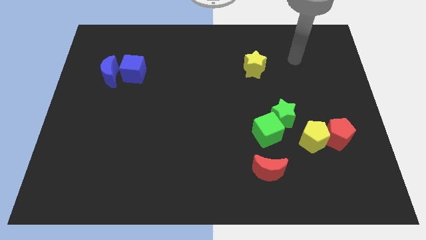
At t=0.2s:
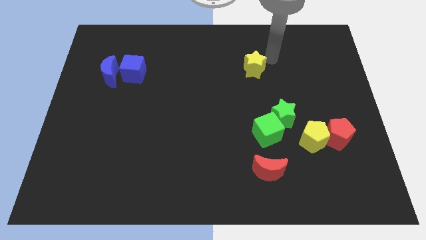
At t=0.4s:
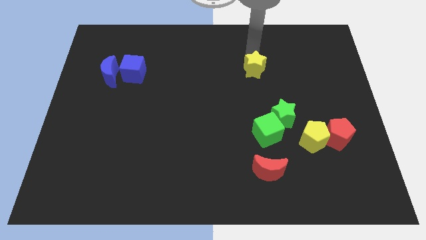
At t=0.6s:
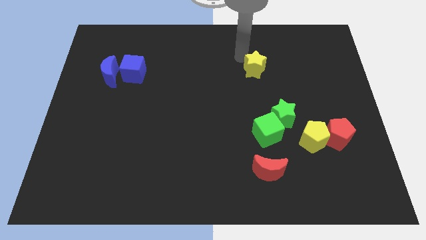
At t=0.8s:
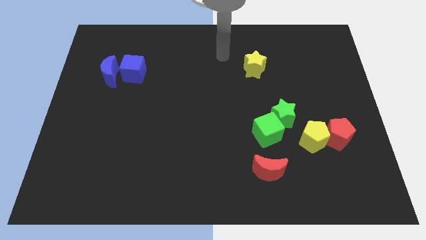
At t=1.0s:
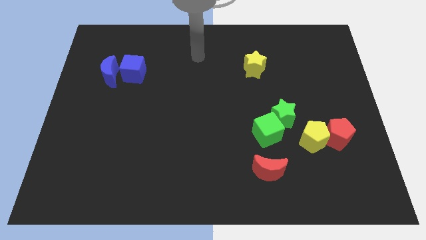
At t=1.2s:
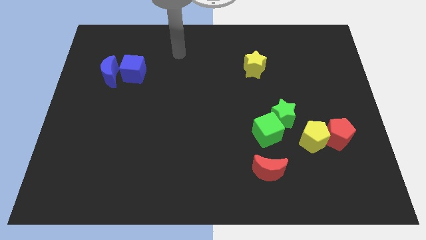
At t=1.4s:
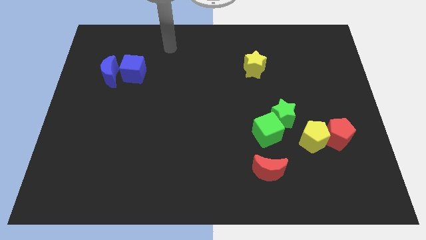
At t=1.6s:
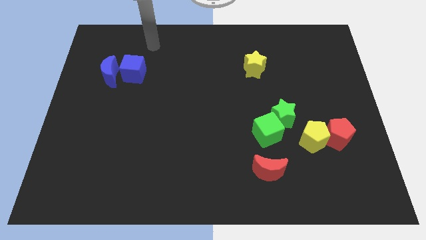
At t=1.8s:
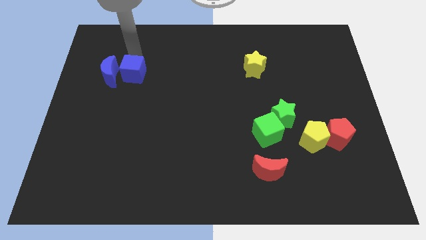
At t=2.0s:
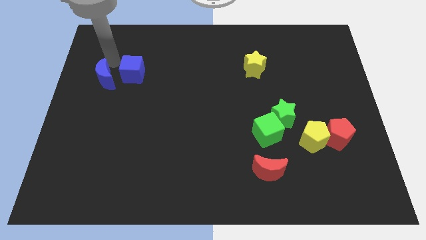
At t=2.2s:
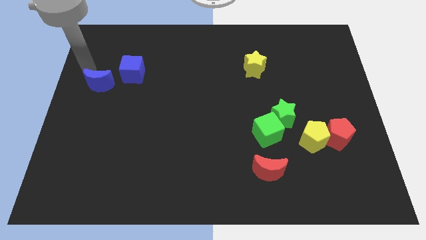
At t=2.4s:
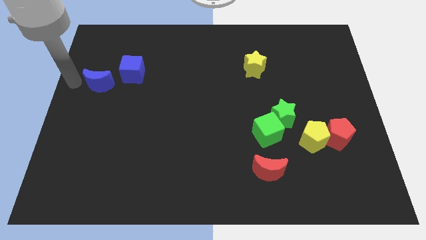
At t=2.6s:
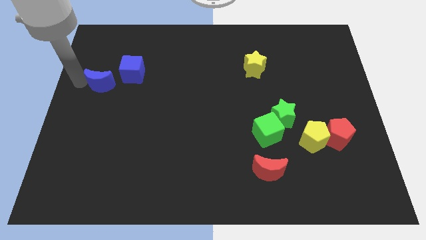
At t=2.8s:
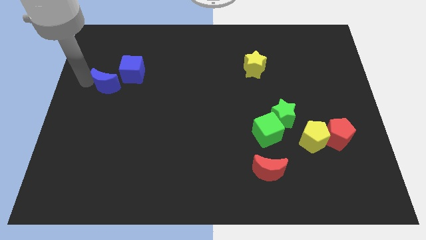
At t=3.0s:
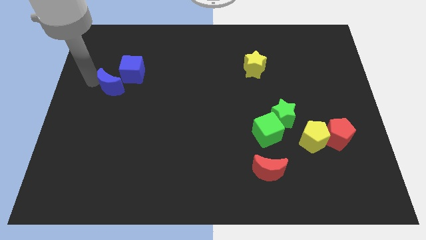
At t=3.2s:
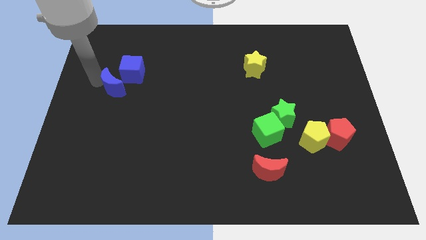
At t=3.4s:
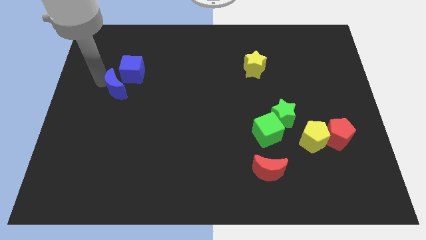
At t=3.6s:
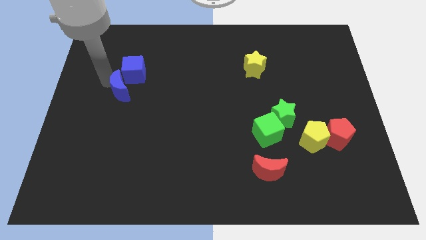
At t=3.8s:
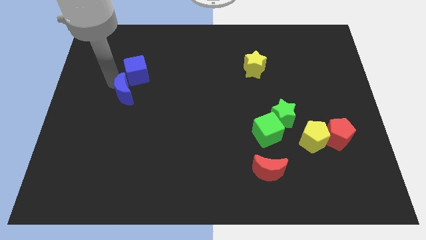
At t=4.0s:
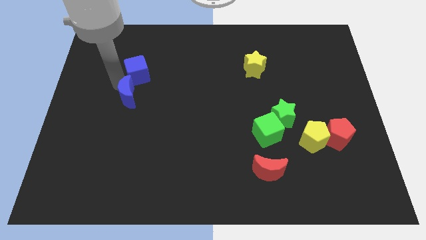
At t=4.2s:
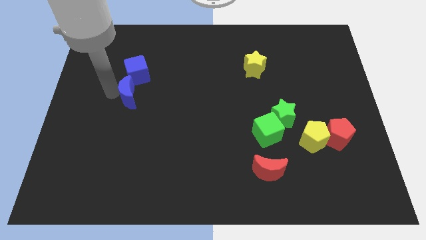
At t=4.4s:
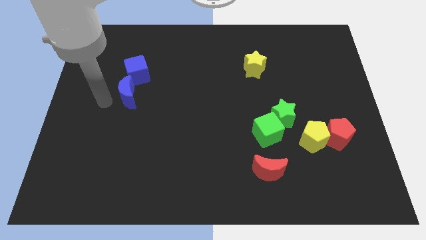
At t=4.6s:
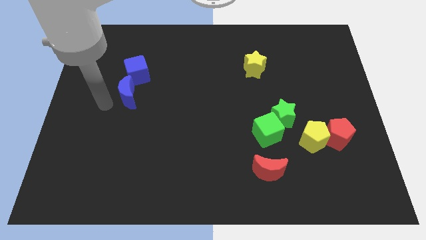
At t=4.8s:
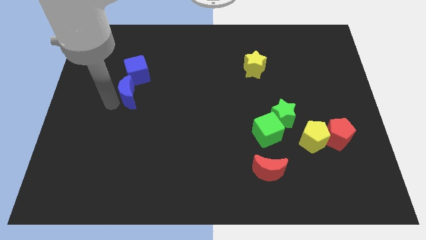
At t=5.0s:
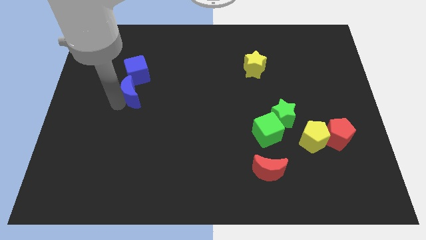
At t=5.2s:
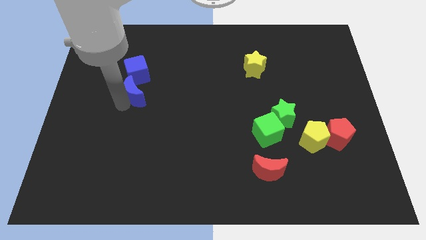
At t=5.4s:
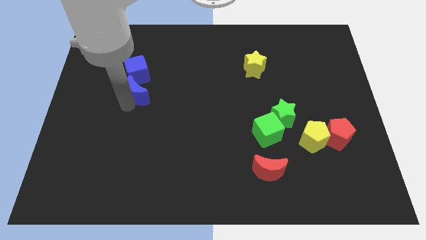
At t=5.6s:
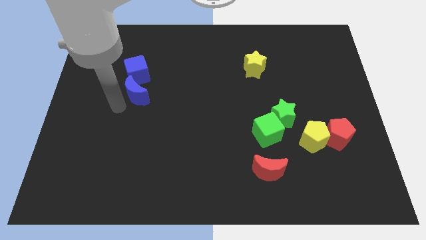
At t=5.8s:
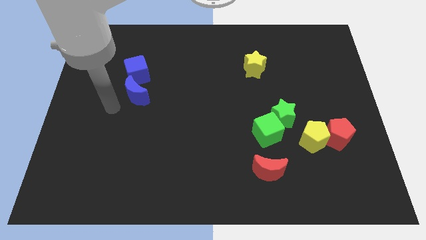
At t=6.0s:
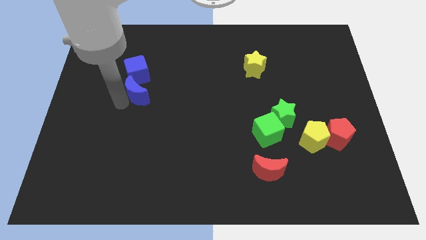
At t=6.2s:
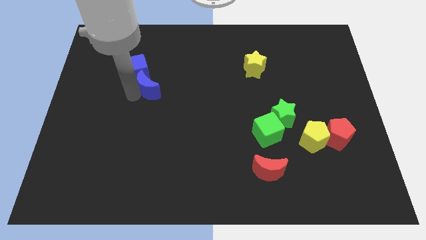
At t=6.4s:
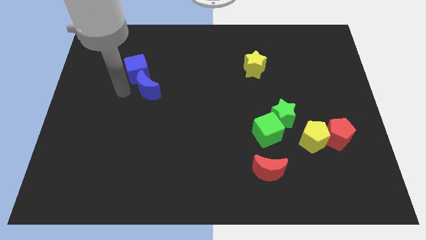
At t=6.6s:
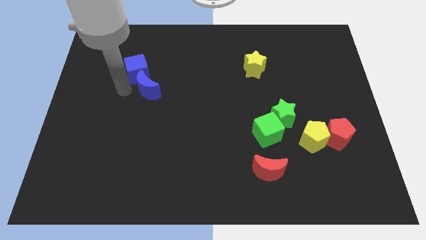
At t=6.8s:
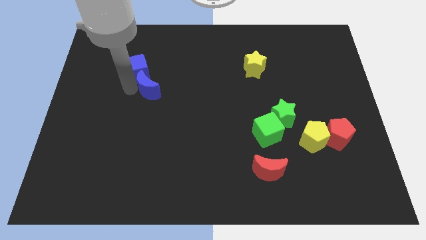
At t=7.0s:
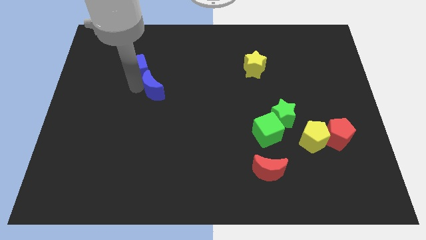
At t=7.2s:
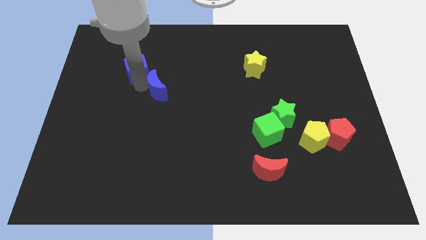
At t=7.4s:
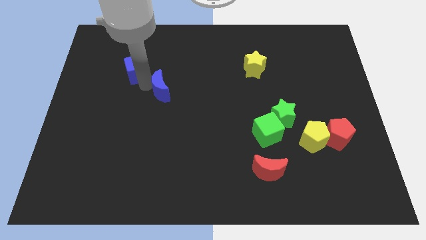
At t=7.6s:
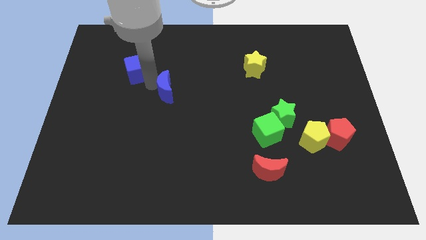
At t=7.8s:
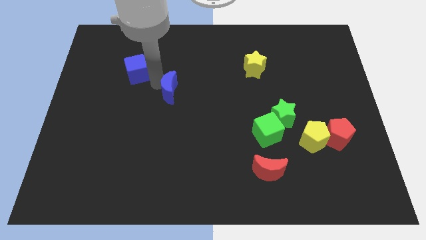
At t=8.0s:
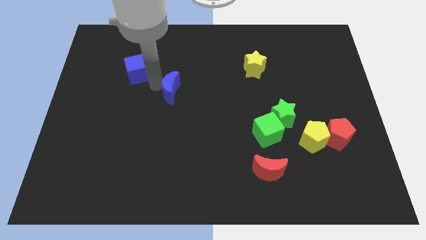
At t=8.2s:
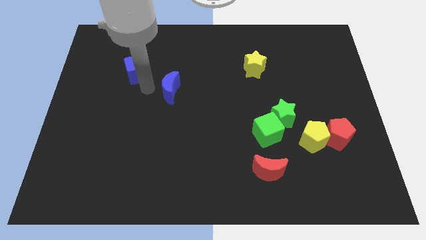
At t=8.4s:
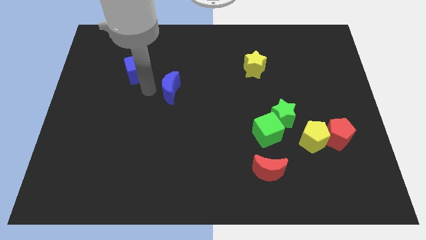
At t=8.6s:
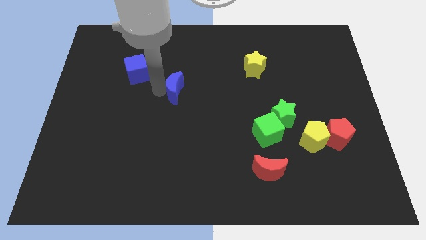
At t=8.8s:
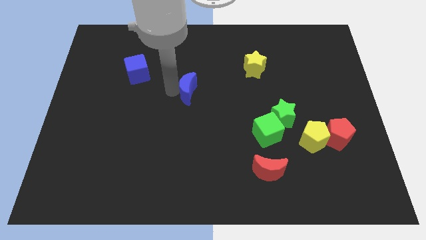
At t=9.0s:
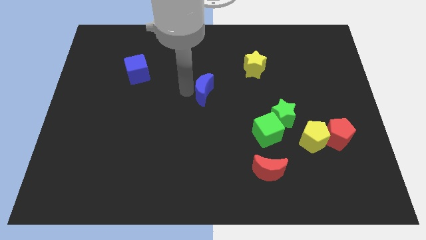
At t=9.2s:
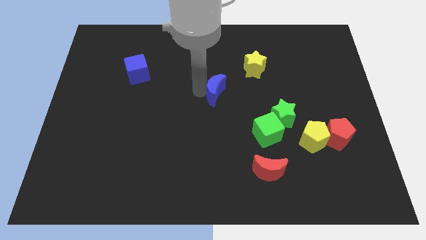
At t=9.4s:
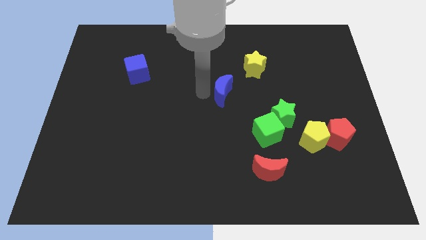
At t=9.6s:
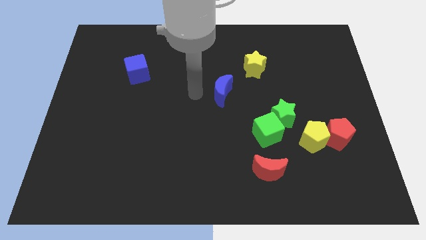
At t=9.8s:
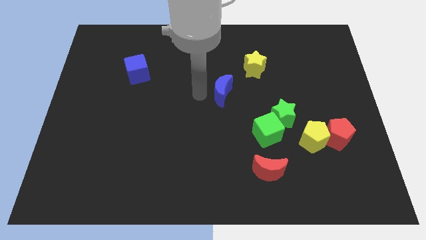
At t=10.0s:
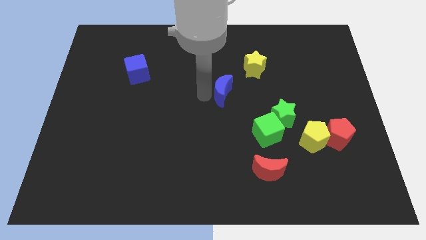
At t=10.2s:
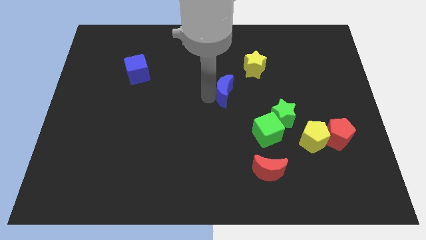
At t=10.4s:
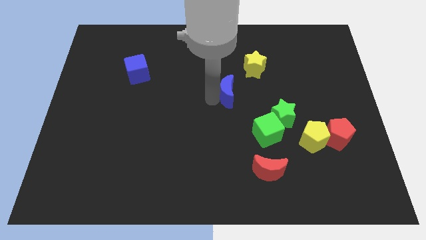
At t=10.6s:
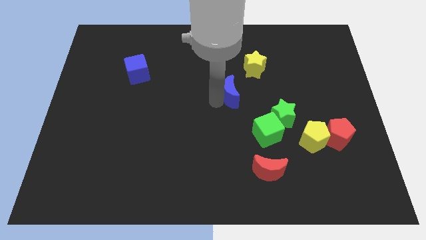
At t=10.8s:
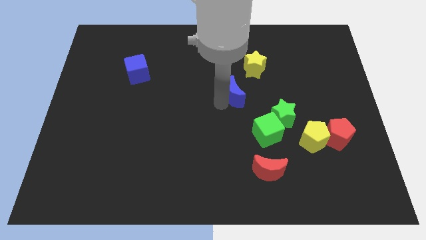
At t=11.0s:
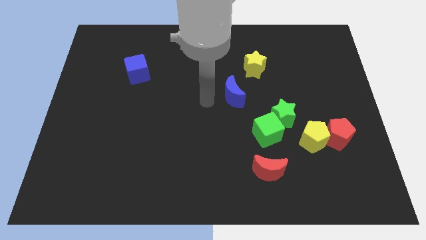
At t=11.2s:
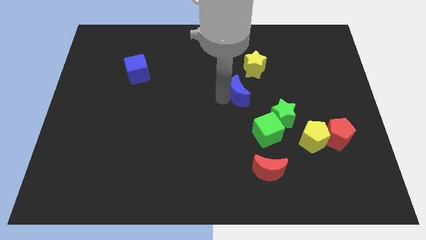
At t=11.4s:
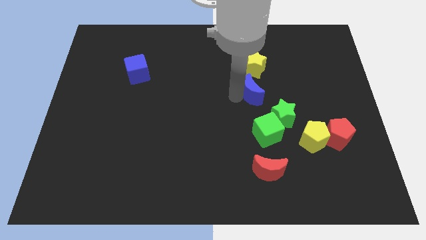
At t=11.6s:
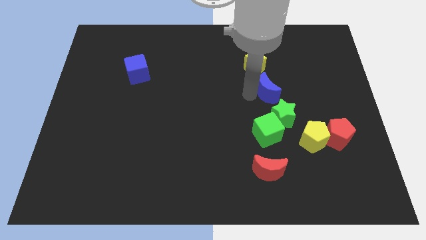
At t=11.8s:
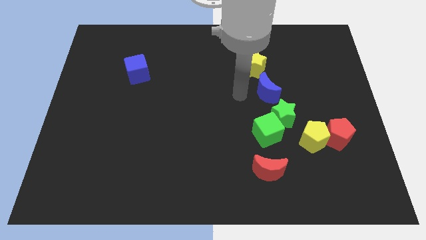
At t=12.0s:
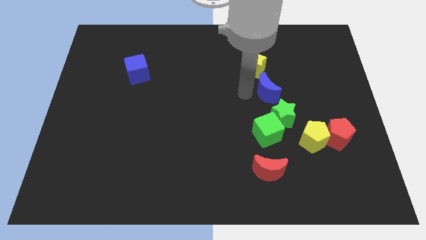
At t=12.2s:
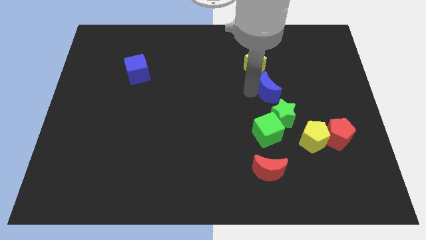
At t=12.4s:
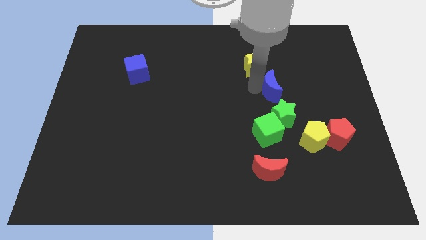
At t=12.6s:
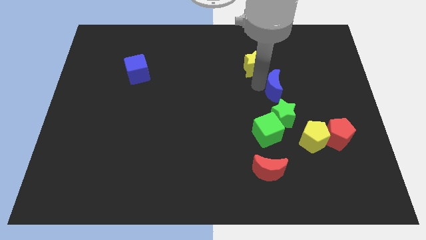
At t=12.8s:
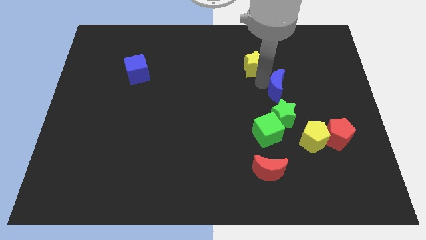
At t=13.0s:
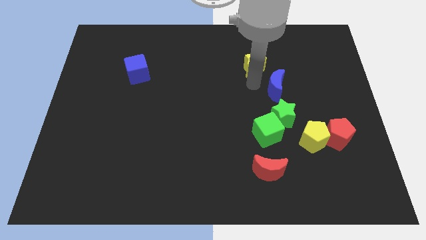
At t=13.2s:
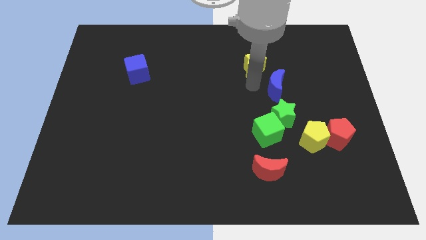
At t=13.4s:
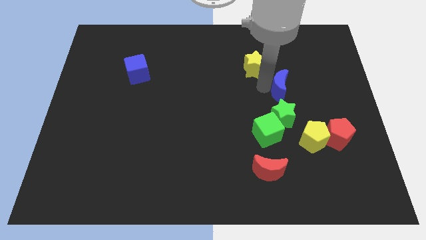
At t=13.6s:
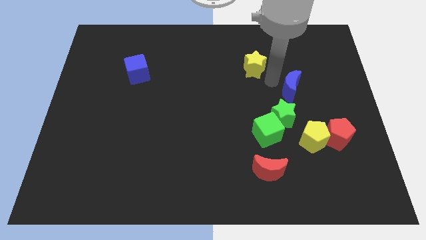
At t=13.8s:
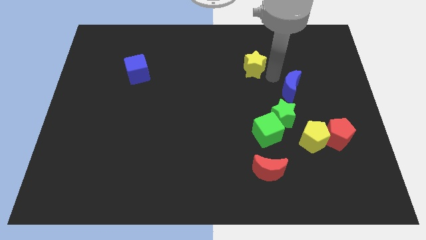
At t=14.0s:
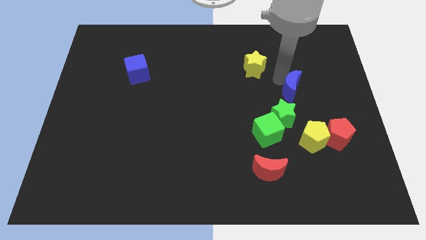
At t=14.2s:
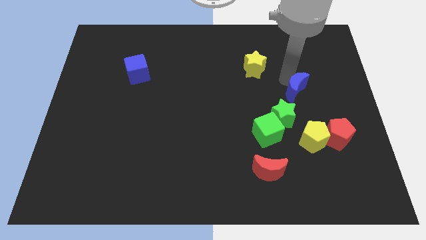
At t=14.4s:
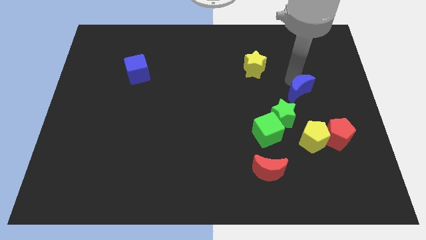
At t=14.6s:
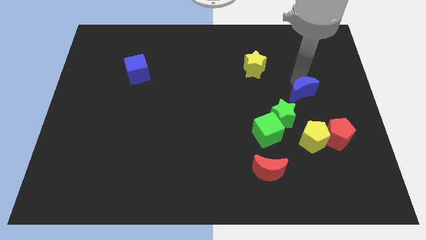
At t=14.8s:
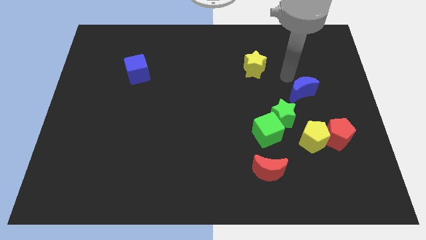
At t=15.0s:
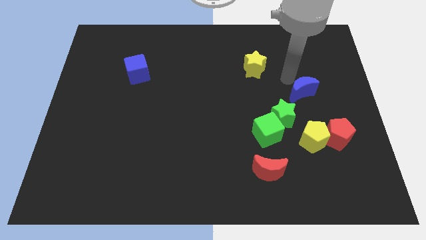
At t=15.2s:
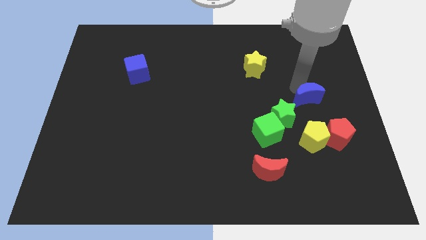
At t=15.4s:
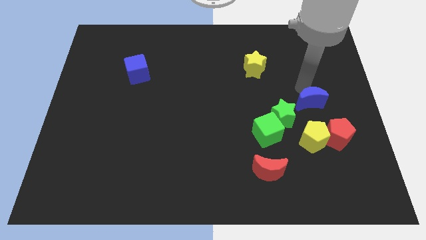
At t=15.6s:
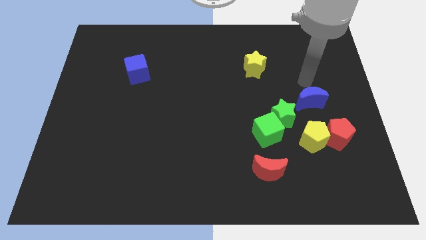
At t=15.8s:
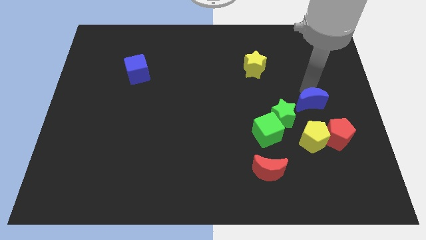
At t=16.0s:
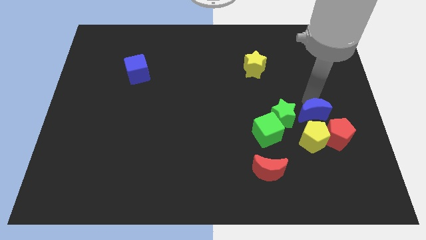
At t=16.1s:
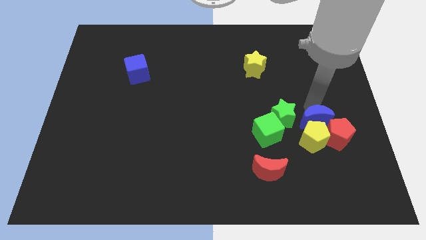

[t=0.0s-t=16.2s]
move the blue moon next to the yellow pentagon
